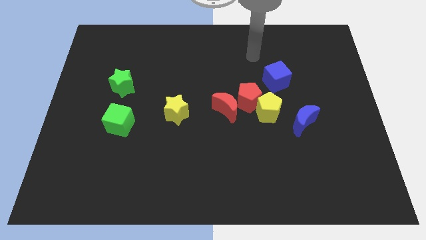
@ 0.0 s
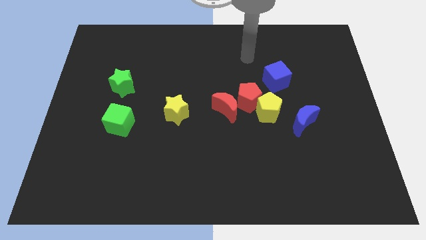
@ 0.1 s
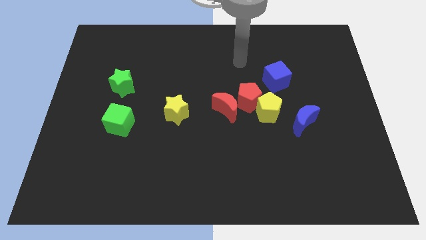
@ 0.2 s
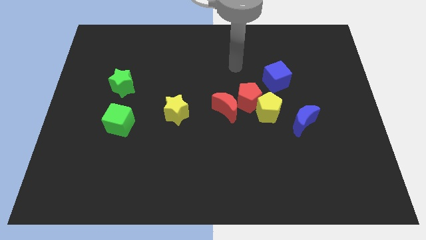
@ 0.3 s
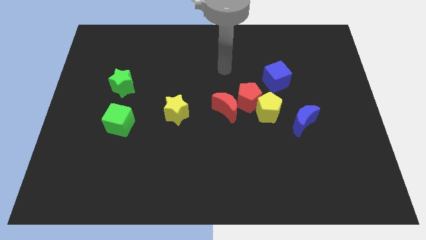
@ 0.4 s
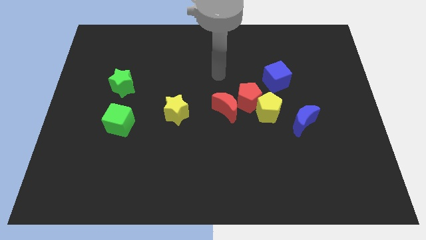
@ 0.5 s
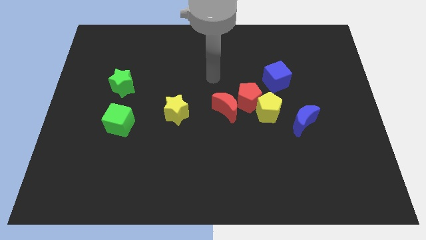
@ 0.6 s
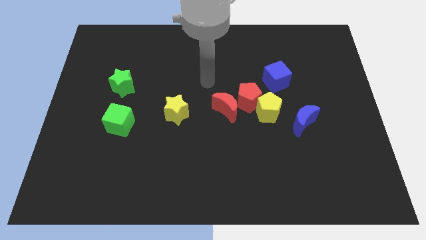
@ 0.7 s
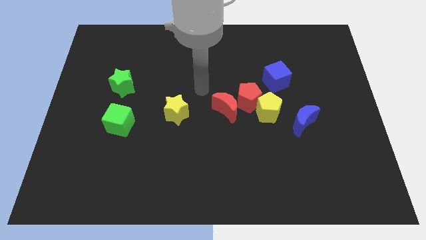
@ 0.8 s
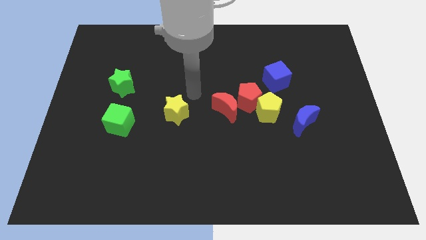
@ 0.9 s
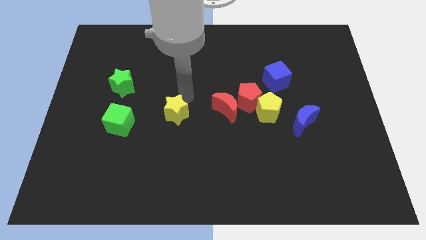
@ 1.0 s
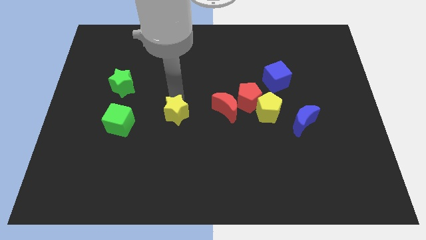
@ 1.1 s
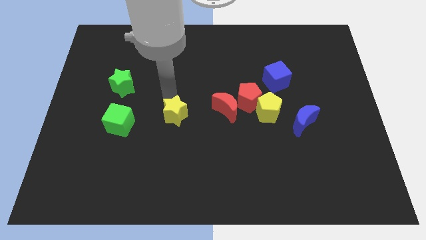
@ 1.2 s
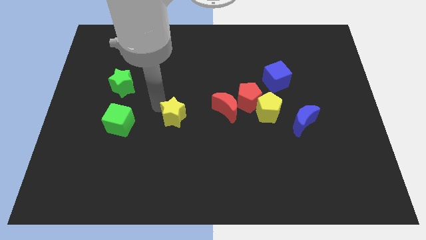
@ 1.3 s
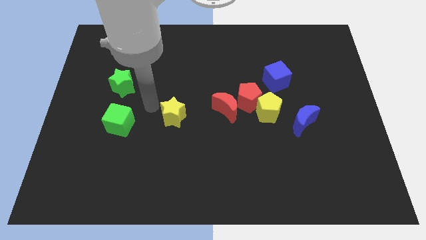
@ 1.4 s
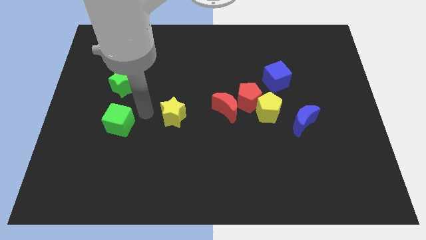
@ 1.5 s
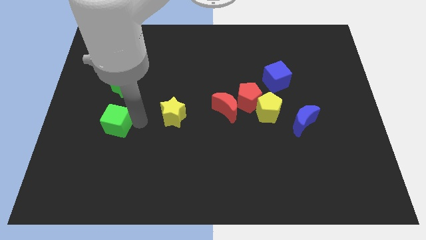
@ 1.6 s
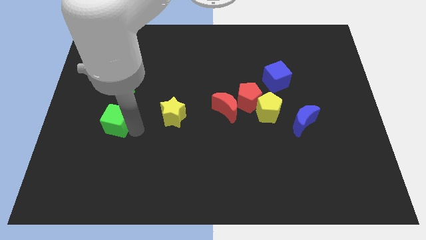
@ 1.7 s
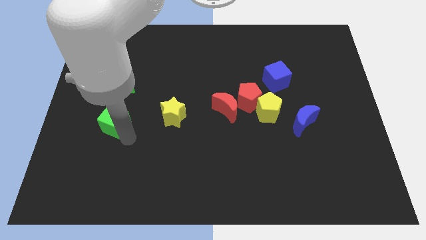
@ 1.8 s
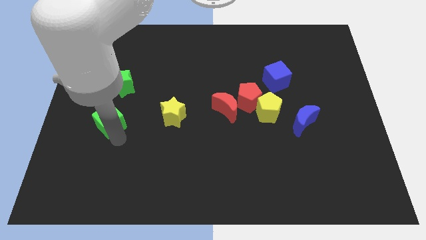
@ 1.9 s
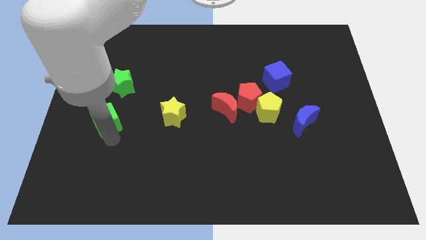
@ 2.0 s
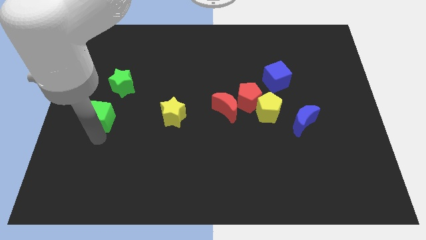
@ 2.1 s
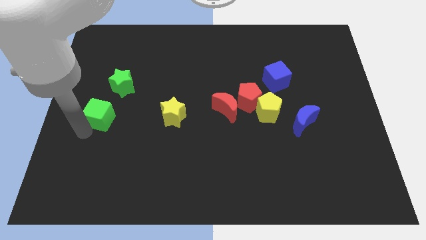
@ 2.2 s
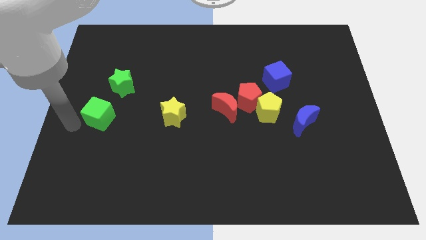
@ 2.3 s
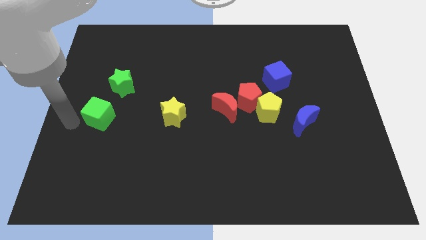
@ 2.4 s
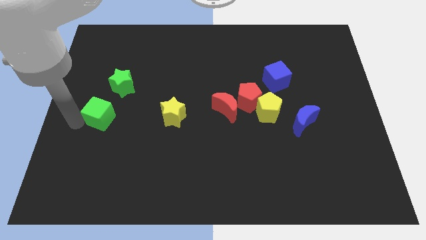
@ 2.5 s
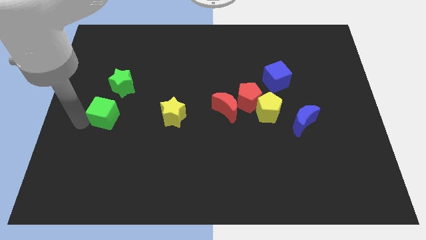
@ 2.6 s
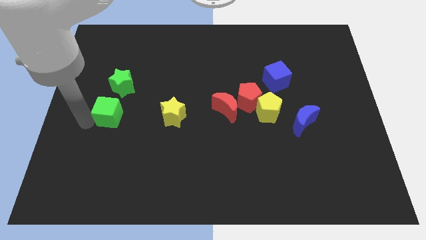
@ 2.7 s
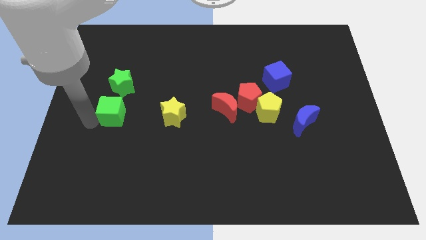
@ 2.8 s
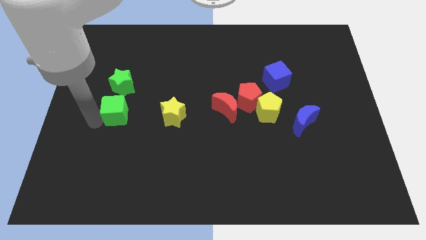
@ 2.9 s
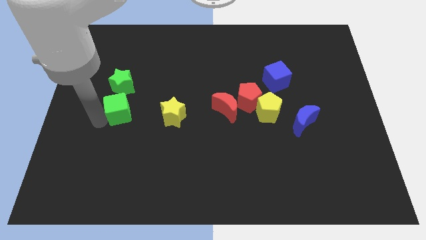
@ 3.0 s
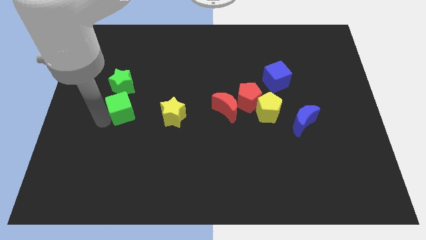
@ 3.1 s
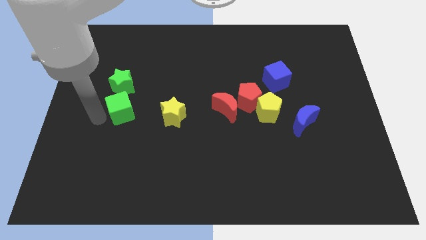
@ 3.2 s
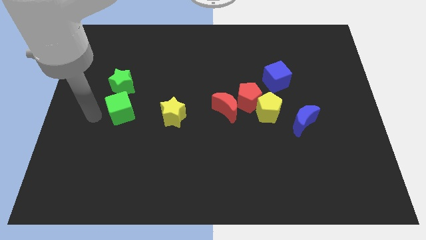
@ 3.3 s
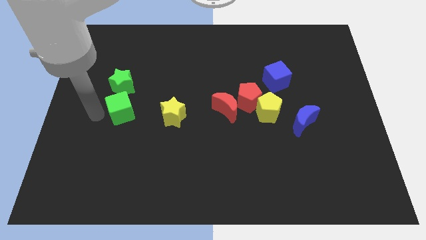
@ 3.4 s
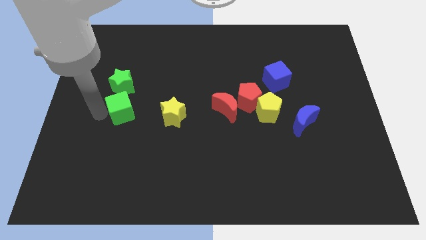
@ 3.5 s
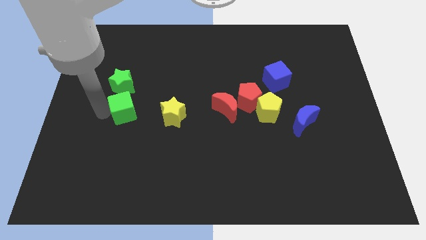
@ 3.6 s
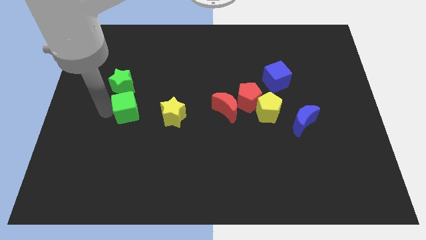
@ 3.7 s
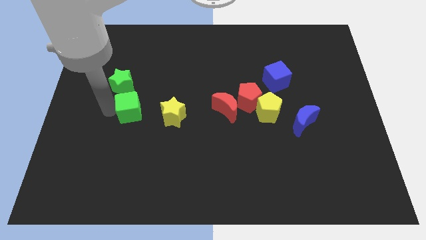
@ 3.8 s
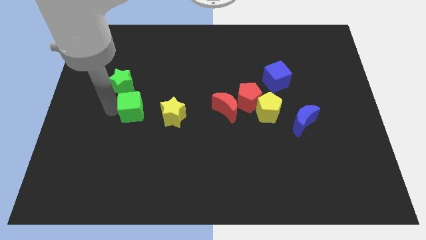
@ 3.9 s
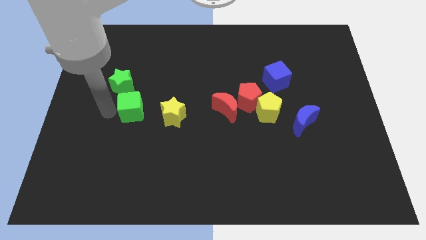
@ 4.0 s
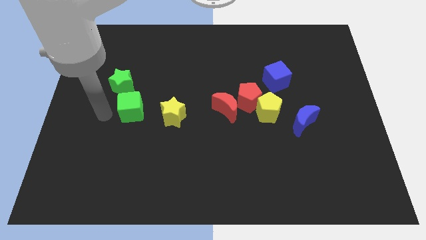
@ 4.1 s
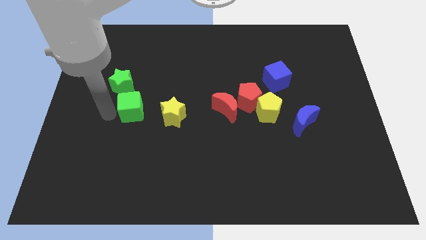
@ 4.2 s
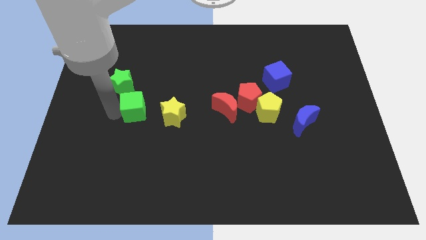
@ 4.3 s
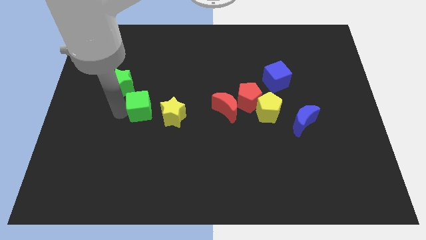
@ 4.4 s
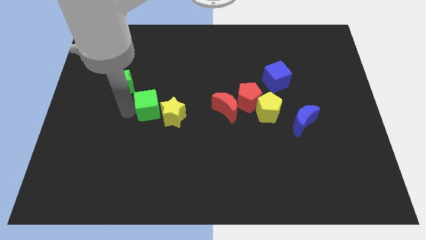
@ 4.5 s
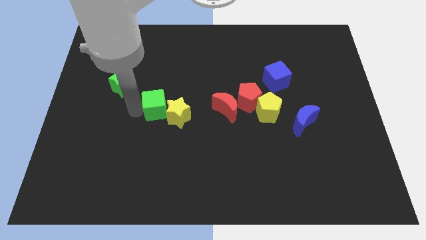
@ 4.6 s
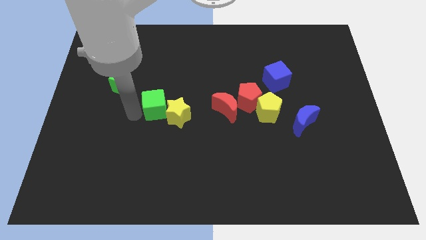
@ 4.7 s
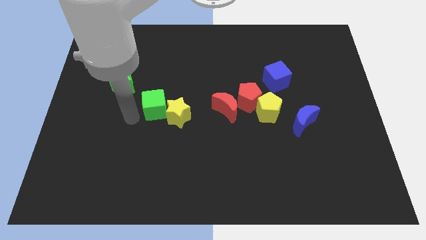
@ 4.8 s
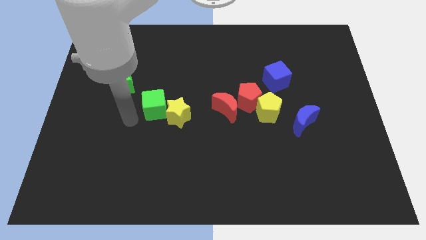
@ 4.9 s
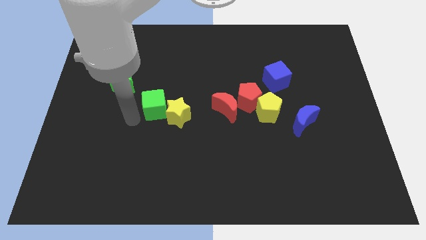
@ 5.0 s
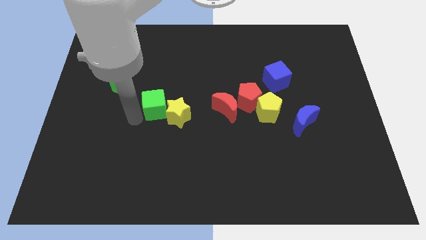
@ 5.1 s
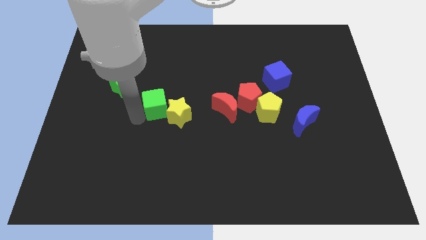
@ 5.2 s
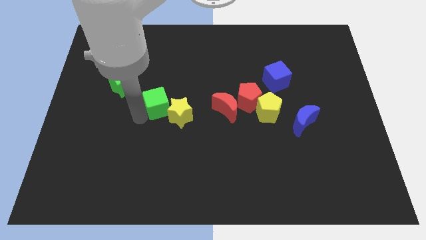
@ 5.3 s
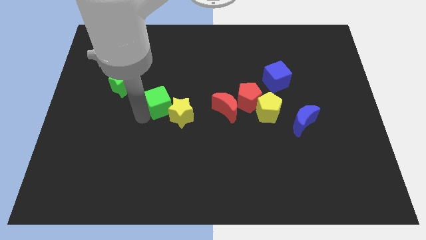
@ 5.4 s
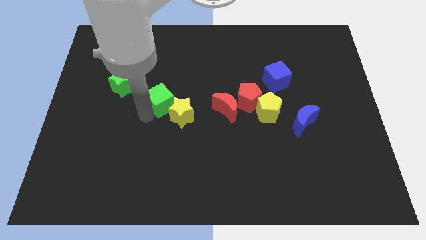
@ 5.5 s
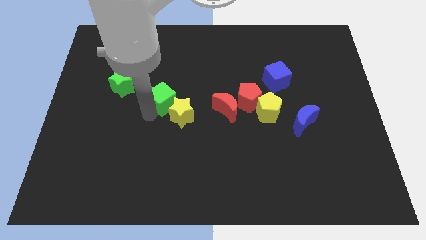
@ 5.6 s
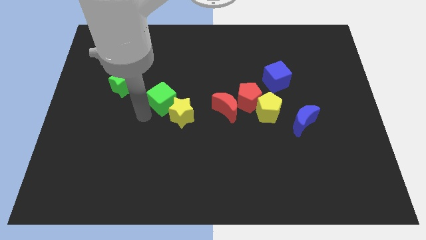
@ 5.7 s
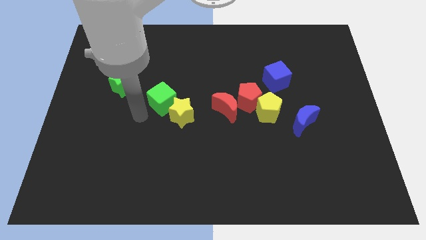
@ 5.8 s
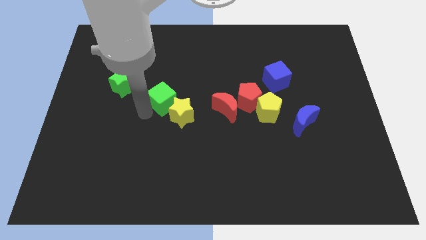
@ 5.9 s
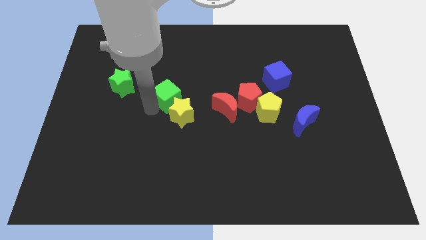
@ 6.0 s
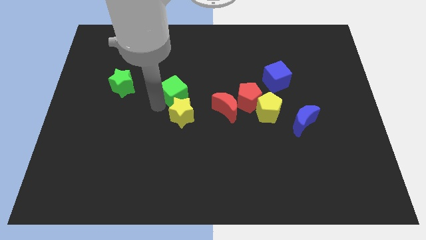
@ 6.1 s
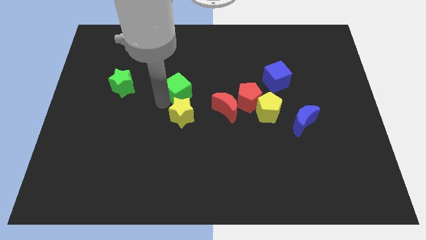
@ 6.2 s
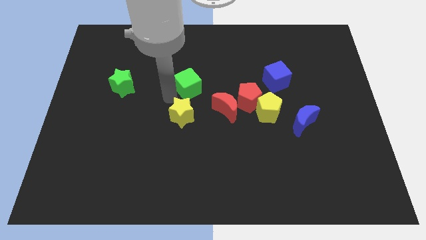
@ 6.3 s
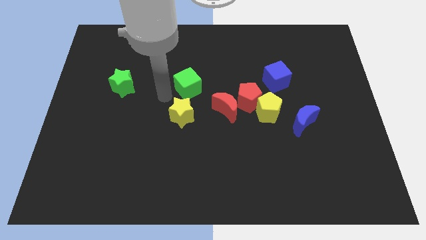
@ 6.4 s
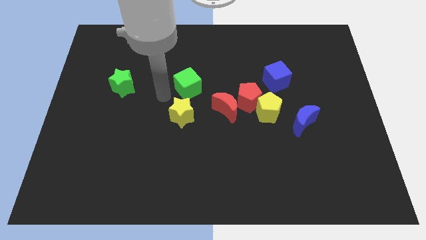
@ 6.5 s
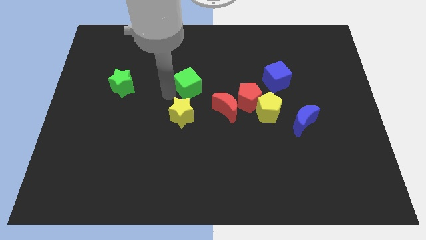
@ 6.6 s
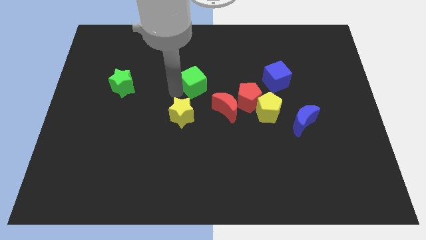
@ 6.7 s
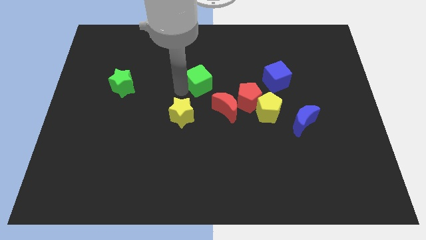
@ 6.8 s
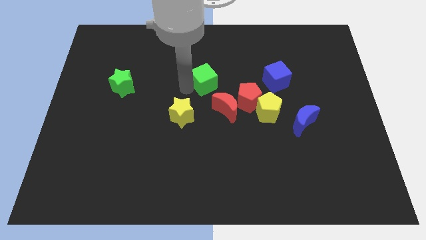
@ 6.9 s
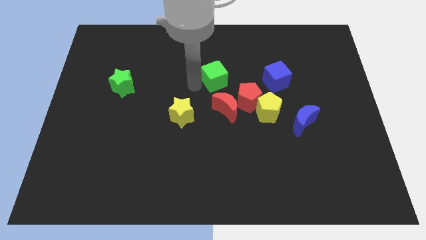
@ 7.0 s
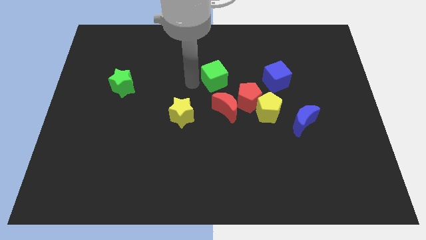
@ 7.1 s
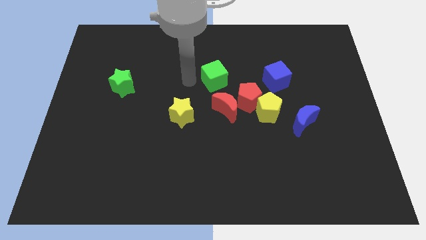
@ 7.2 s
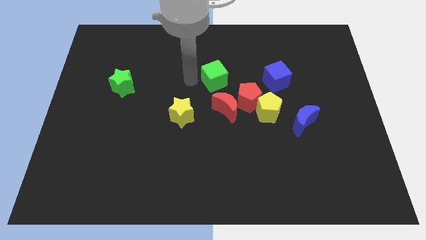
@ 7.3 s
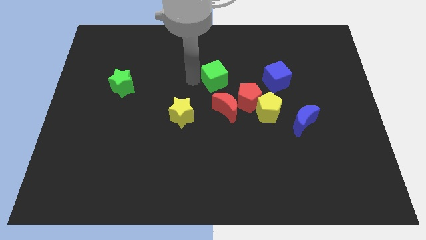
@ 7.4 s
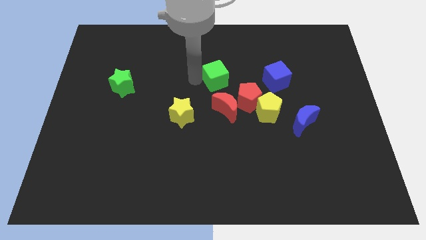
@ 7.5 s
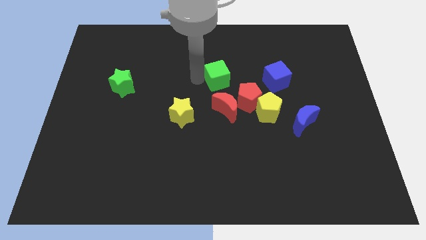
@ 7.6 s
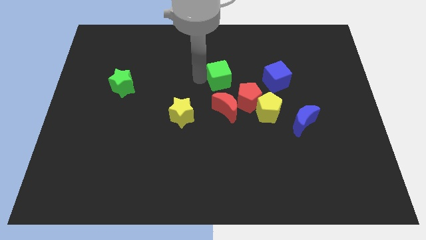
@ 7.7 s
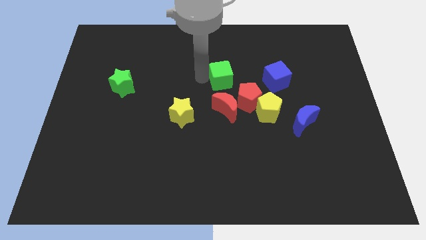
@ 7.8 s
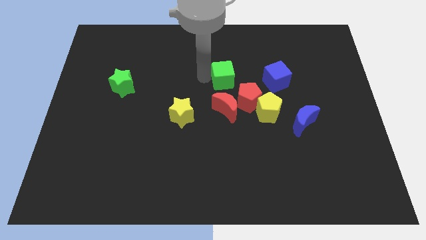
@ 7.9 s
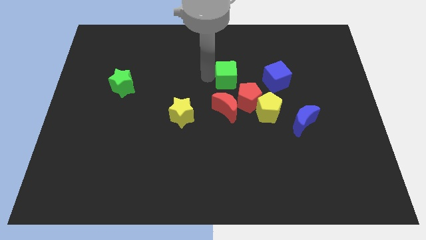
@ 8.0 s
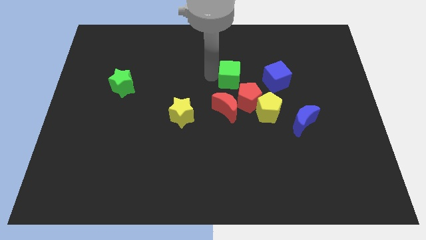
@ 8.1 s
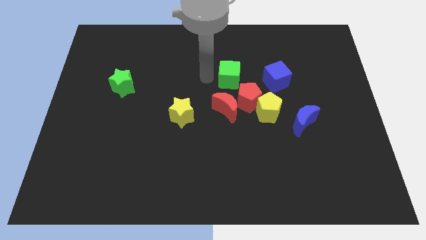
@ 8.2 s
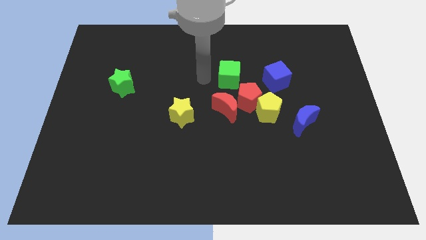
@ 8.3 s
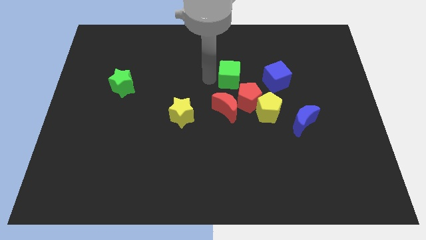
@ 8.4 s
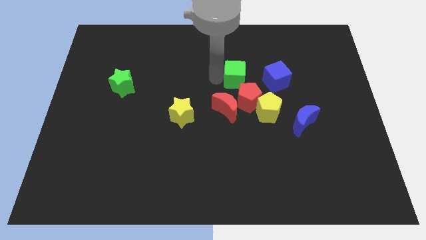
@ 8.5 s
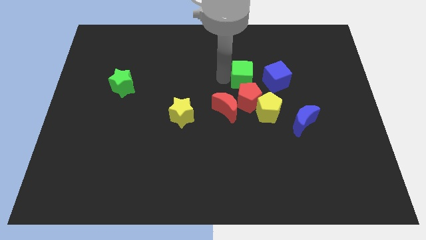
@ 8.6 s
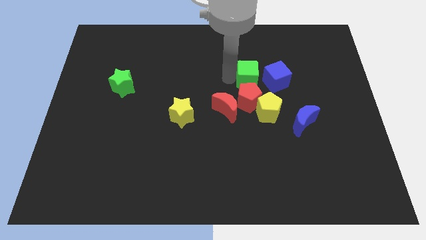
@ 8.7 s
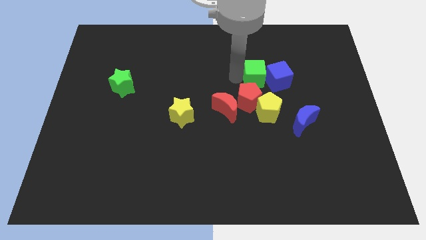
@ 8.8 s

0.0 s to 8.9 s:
push the green cube towards the blue cube
